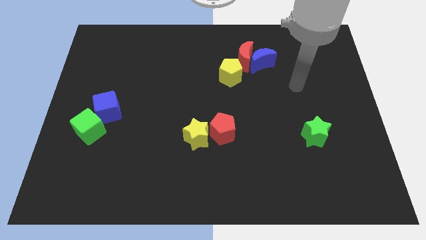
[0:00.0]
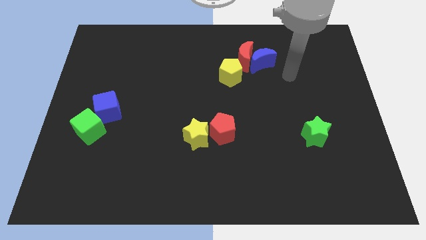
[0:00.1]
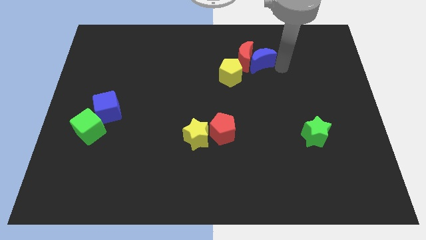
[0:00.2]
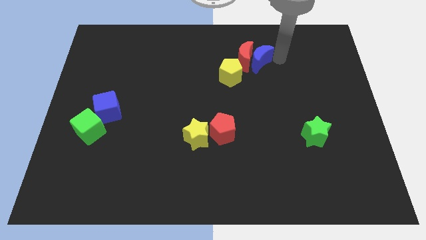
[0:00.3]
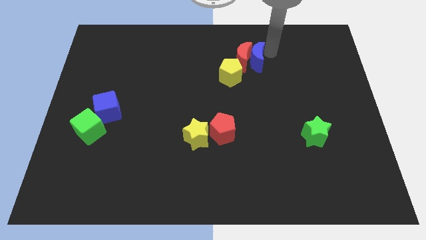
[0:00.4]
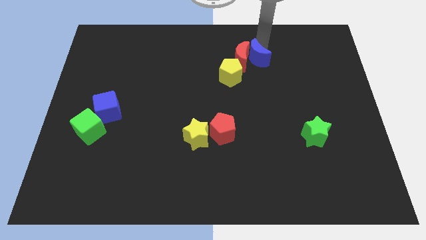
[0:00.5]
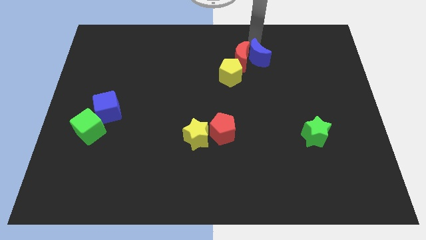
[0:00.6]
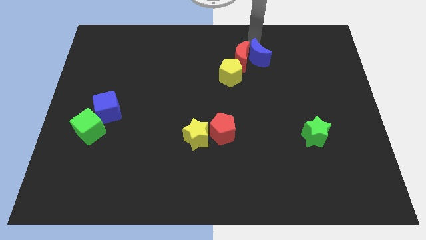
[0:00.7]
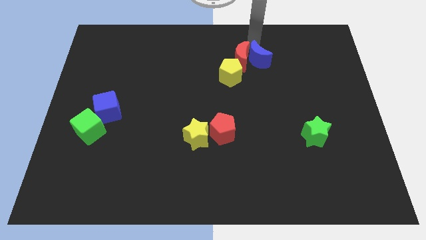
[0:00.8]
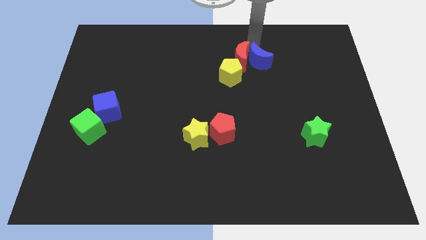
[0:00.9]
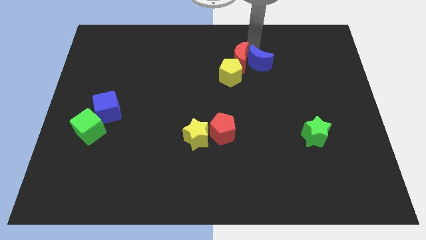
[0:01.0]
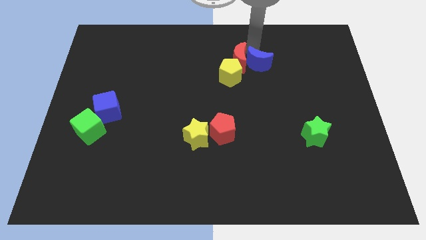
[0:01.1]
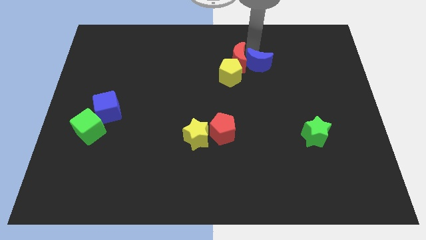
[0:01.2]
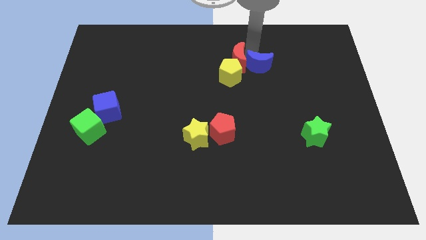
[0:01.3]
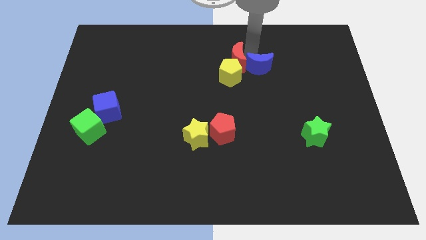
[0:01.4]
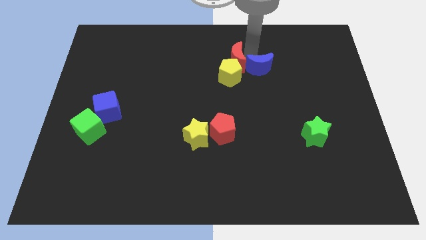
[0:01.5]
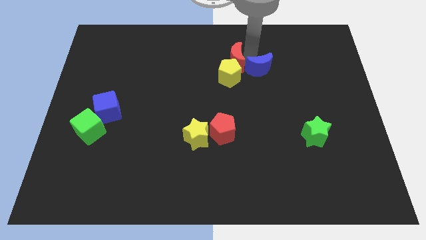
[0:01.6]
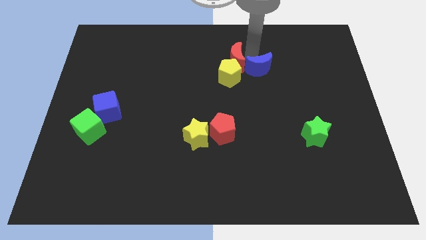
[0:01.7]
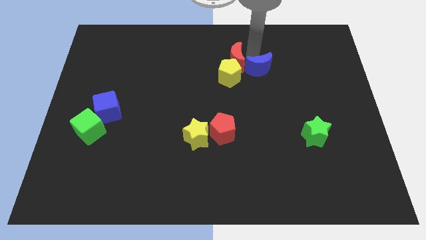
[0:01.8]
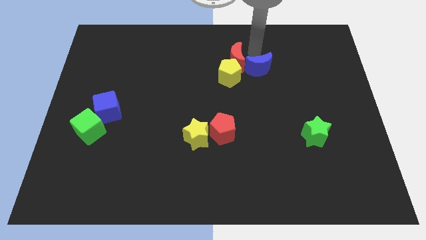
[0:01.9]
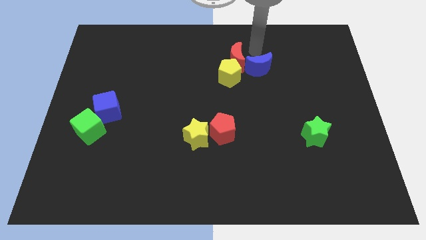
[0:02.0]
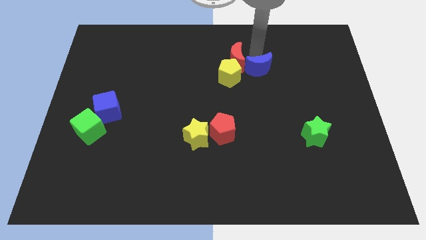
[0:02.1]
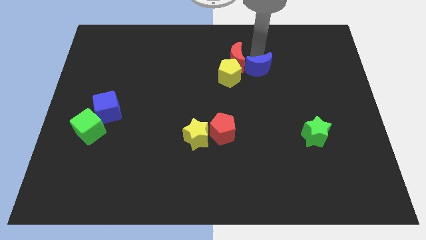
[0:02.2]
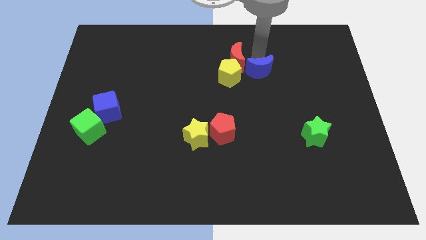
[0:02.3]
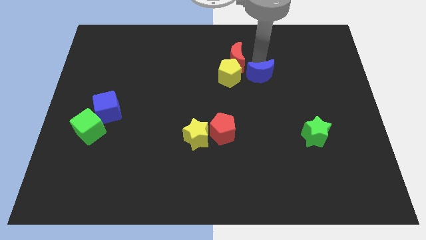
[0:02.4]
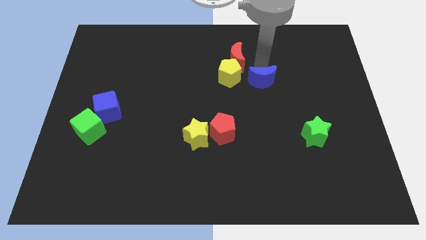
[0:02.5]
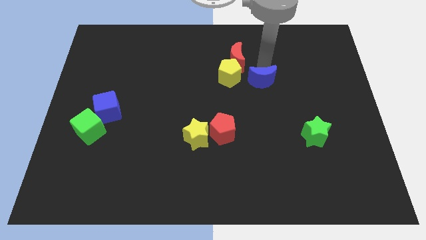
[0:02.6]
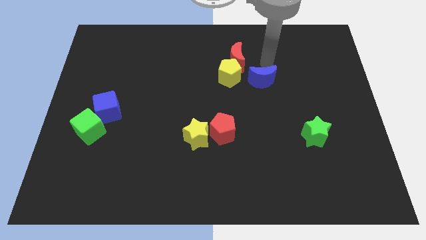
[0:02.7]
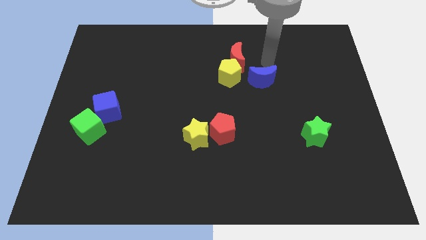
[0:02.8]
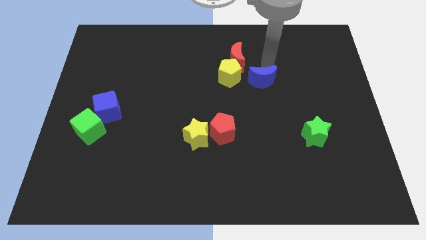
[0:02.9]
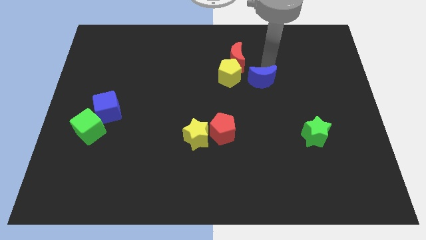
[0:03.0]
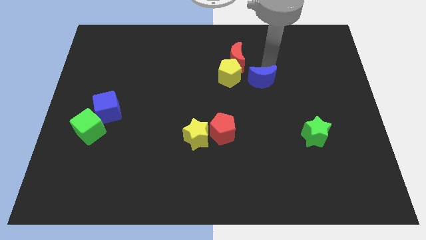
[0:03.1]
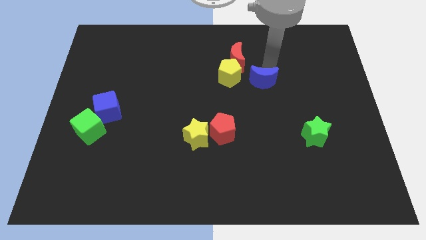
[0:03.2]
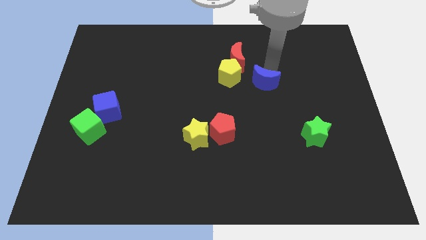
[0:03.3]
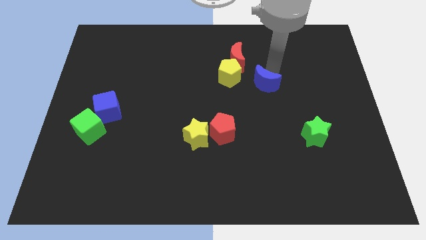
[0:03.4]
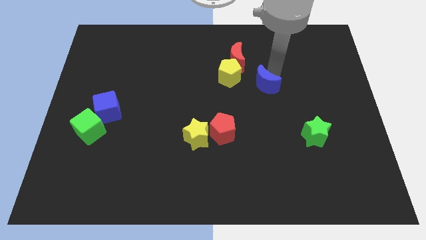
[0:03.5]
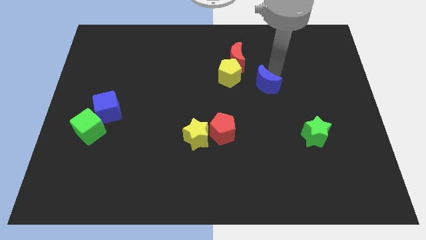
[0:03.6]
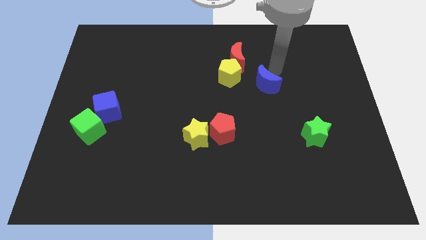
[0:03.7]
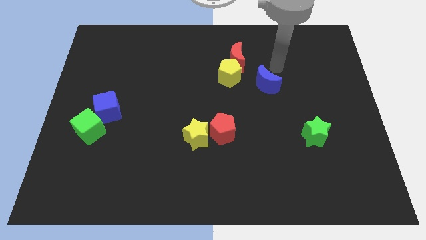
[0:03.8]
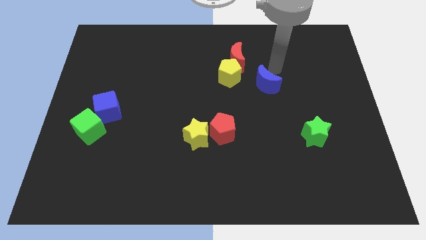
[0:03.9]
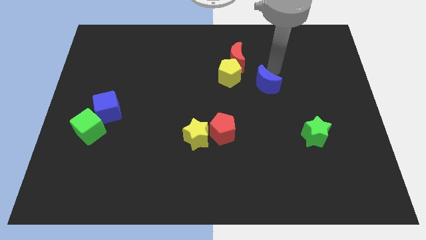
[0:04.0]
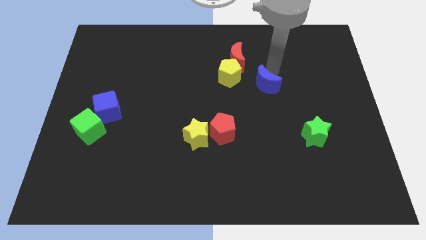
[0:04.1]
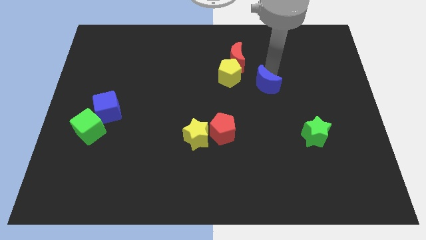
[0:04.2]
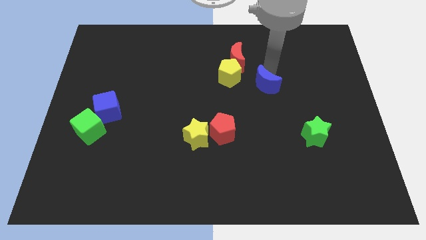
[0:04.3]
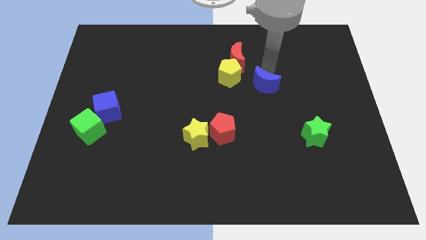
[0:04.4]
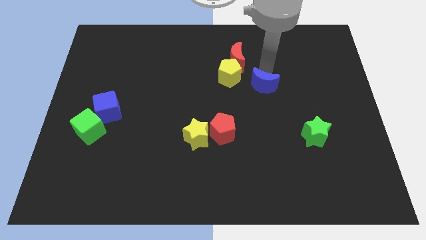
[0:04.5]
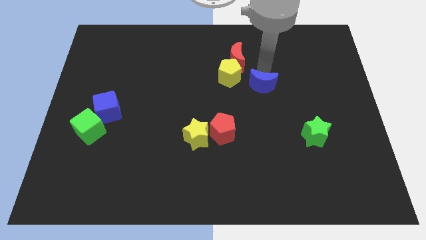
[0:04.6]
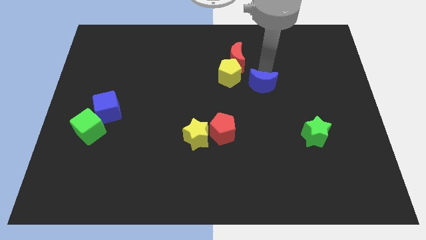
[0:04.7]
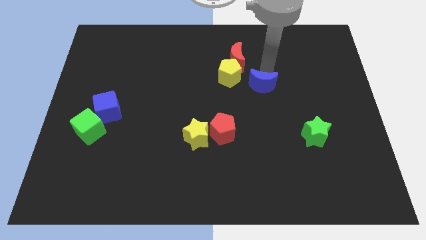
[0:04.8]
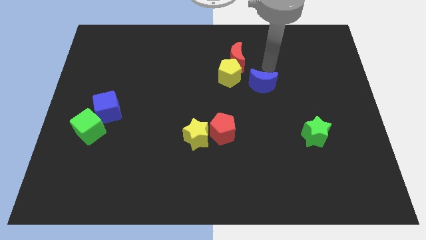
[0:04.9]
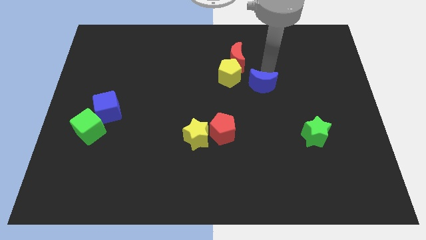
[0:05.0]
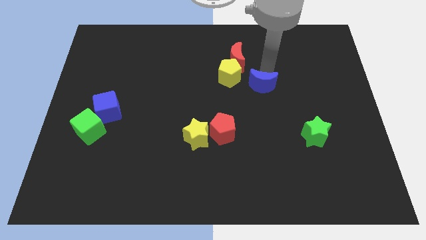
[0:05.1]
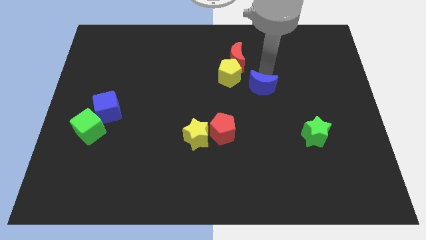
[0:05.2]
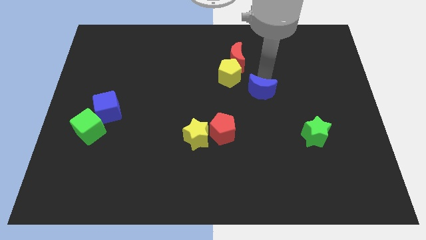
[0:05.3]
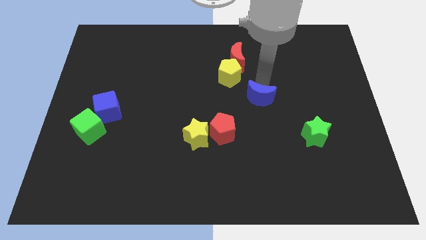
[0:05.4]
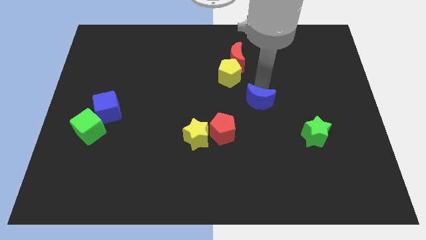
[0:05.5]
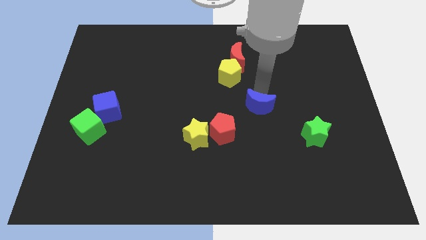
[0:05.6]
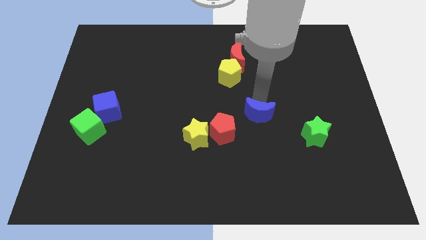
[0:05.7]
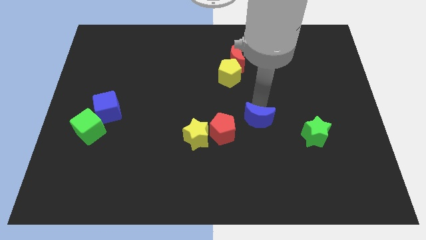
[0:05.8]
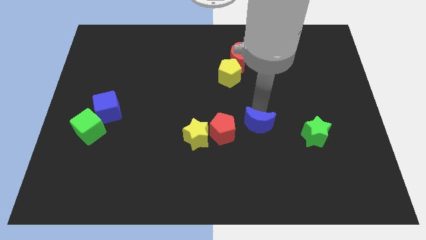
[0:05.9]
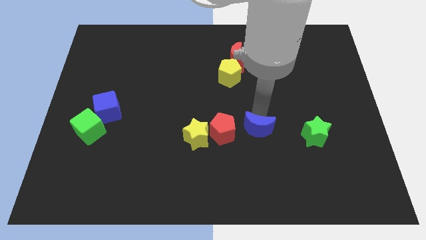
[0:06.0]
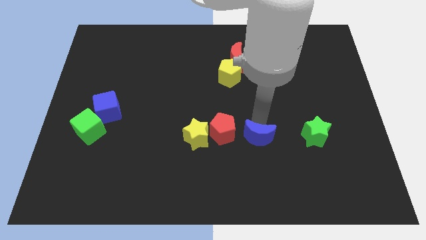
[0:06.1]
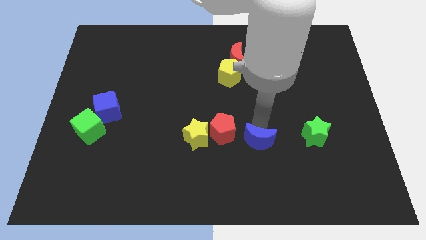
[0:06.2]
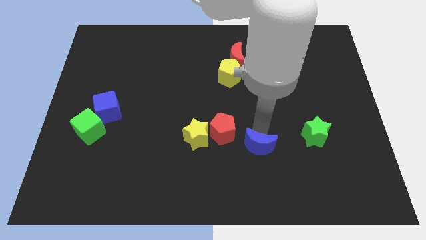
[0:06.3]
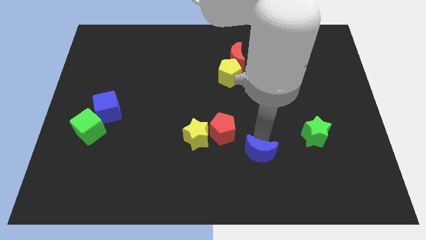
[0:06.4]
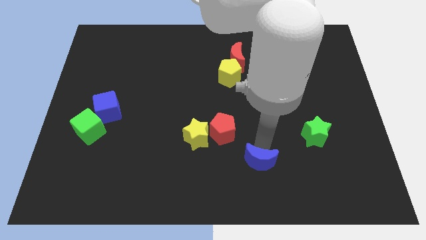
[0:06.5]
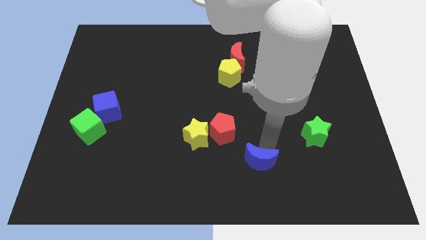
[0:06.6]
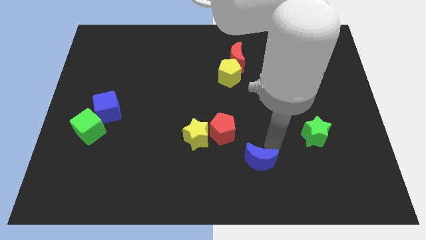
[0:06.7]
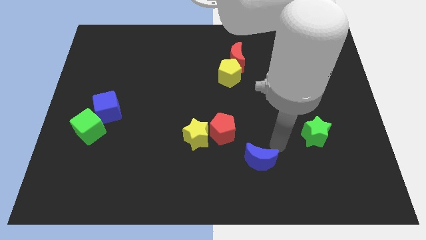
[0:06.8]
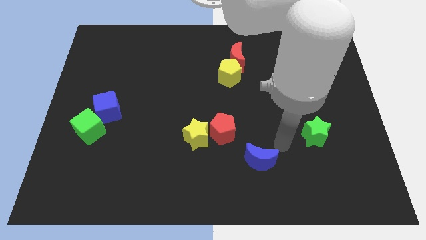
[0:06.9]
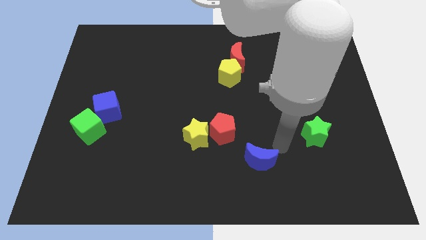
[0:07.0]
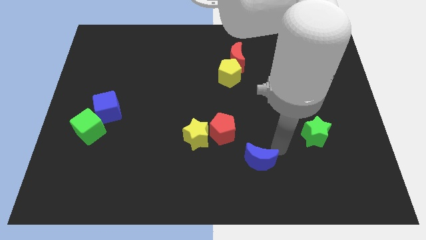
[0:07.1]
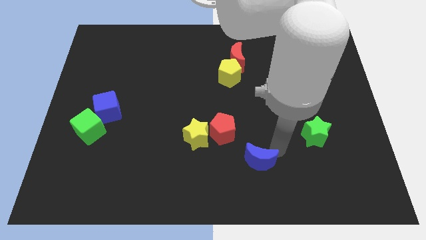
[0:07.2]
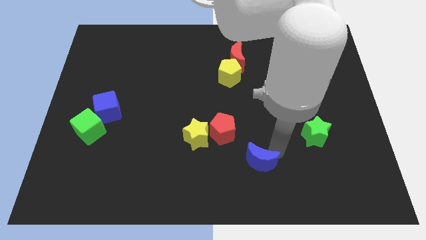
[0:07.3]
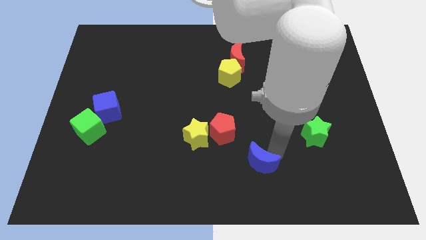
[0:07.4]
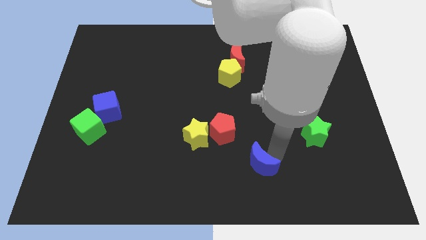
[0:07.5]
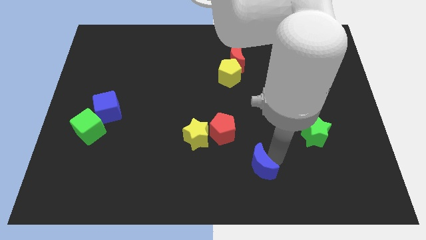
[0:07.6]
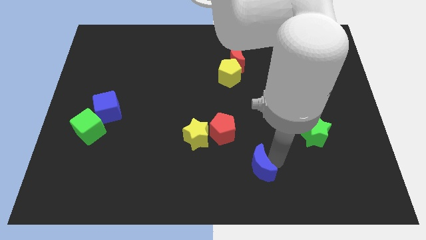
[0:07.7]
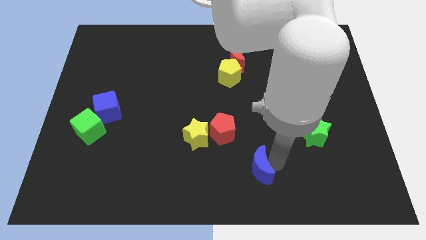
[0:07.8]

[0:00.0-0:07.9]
push the blue moon to the bottom
